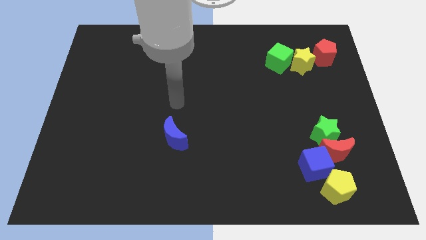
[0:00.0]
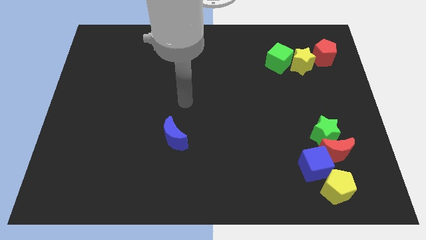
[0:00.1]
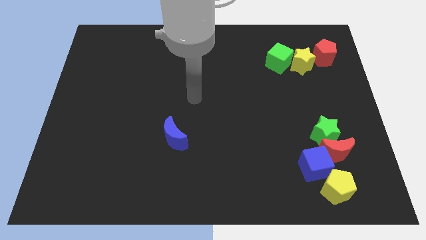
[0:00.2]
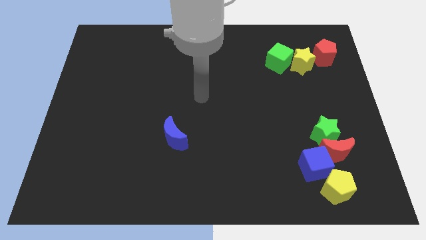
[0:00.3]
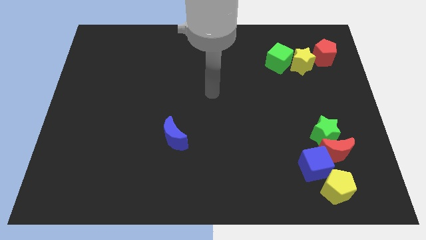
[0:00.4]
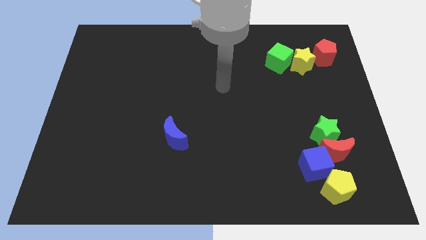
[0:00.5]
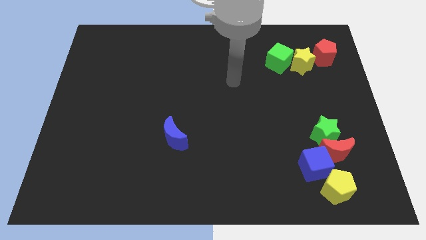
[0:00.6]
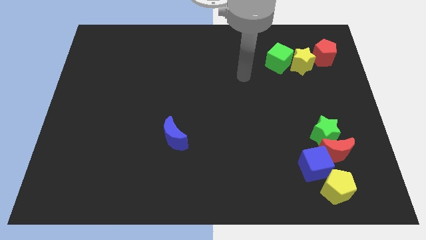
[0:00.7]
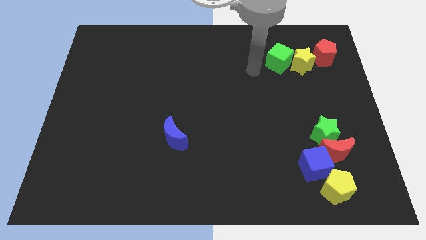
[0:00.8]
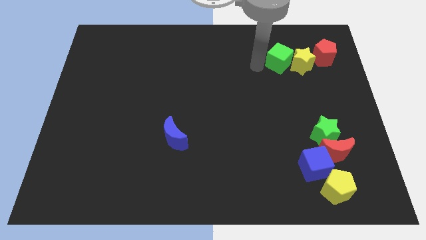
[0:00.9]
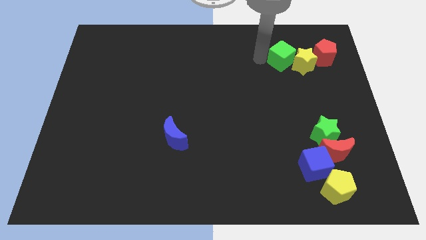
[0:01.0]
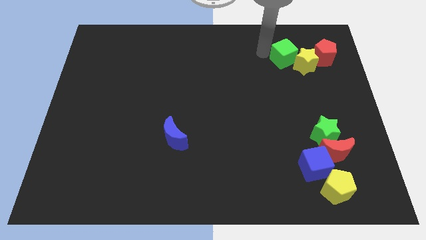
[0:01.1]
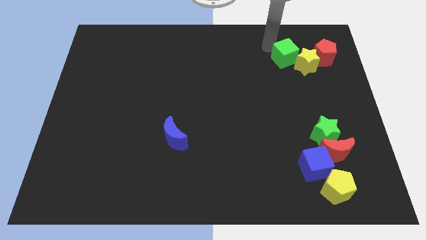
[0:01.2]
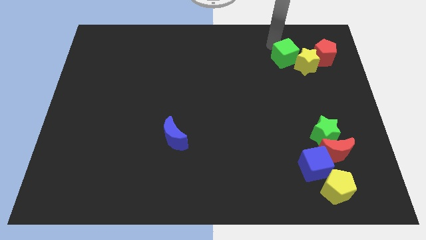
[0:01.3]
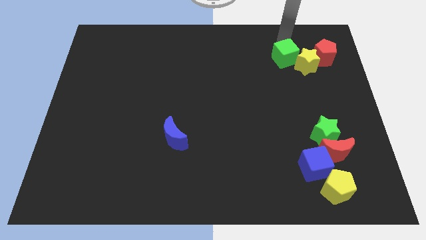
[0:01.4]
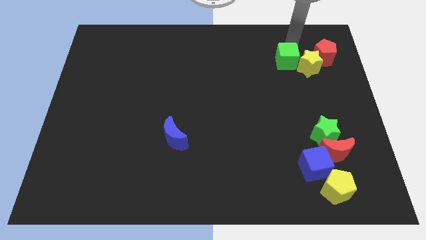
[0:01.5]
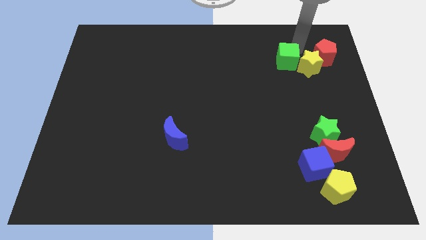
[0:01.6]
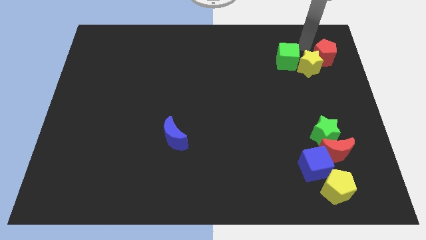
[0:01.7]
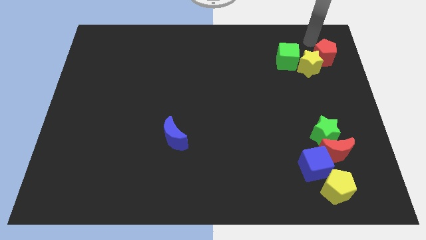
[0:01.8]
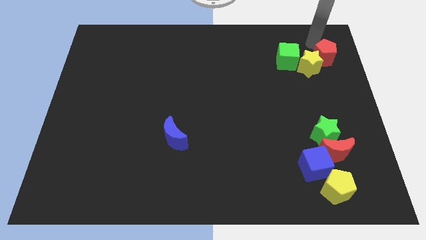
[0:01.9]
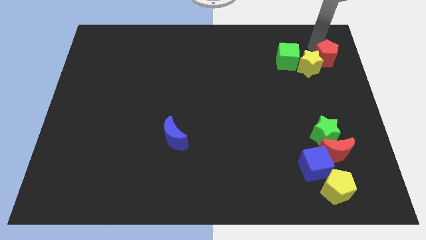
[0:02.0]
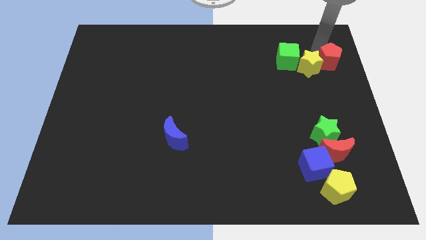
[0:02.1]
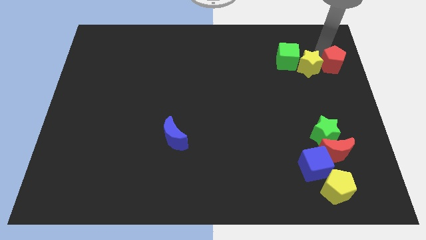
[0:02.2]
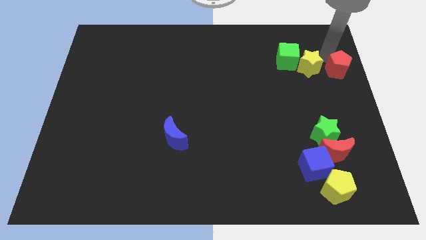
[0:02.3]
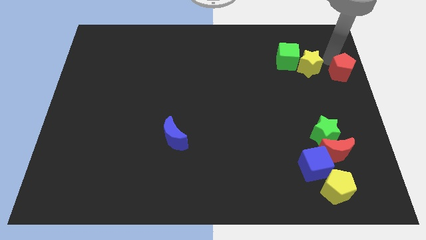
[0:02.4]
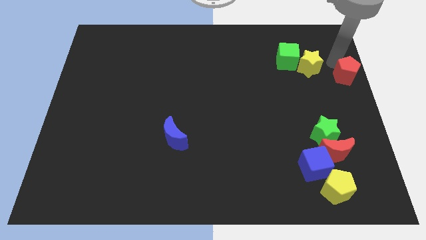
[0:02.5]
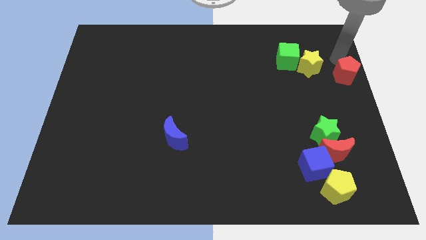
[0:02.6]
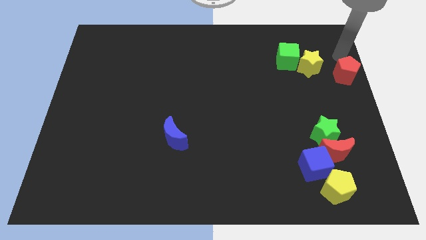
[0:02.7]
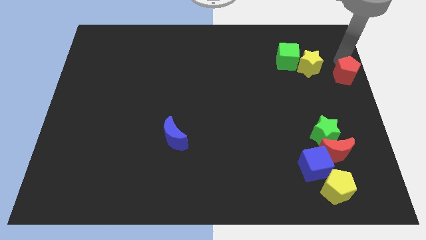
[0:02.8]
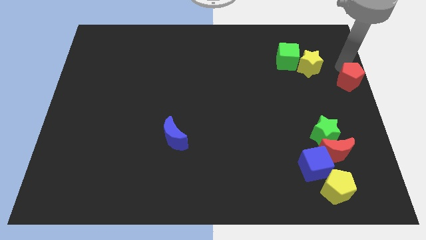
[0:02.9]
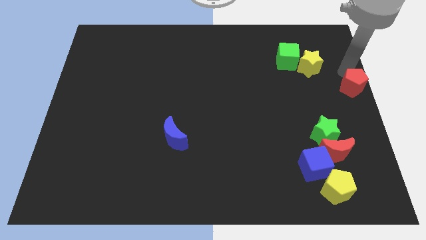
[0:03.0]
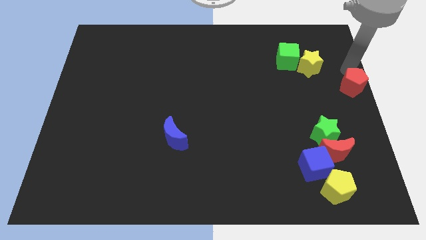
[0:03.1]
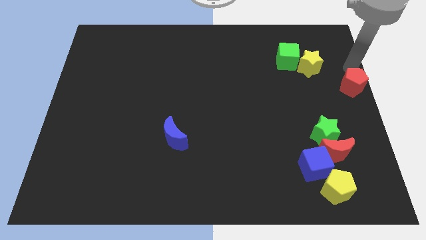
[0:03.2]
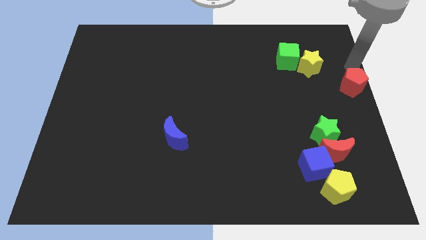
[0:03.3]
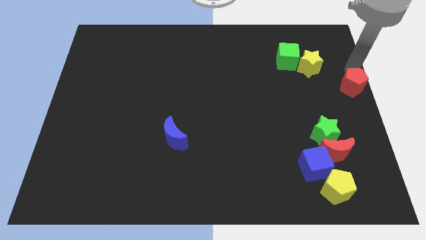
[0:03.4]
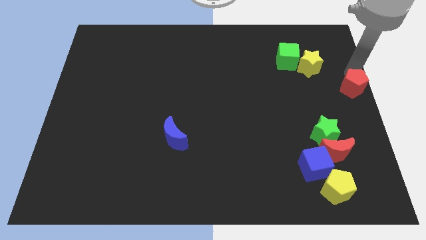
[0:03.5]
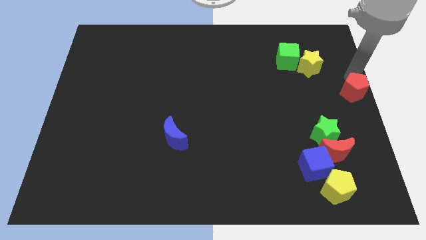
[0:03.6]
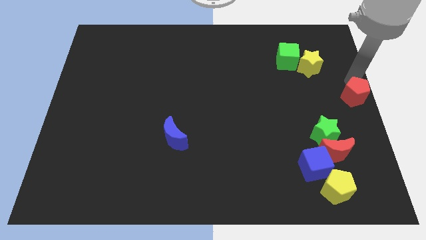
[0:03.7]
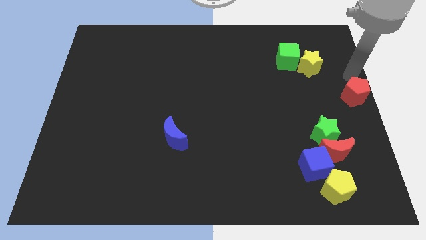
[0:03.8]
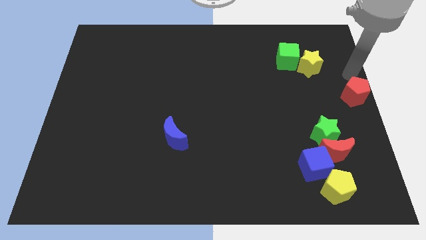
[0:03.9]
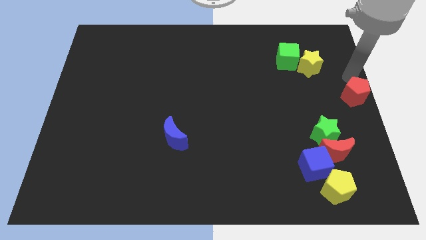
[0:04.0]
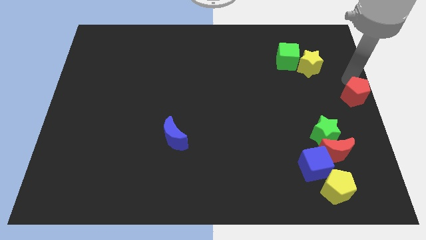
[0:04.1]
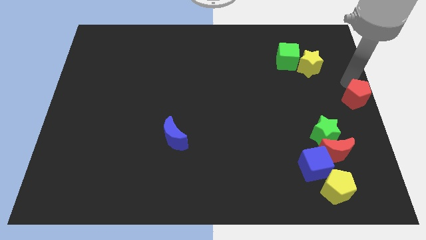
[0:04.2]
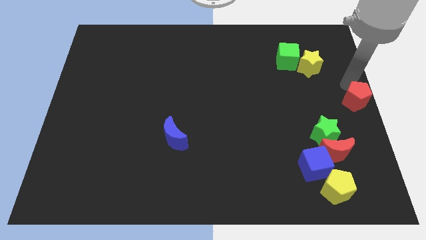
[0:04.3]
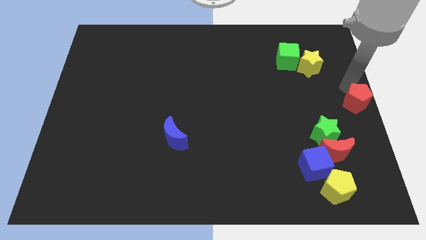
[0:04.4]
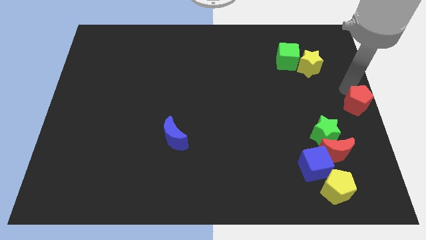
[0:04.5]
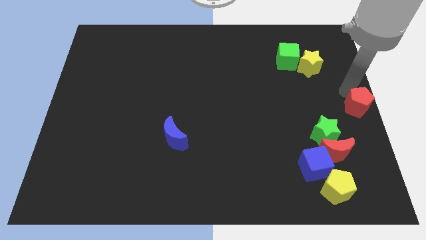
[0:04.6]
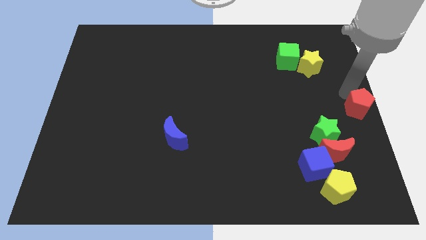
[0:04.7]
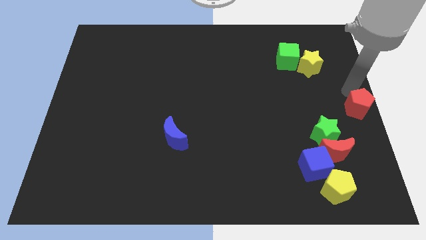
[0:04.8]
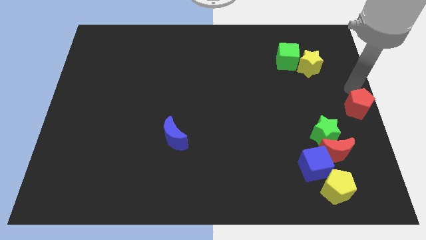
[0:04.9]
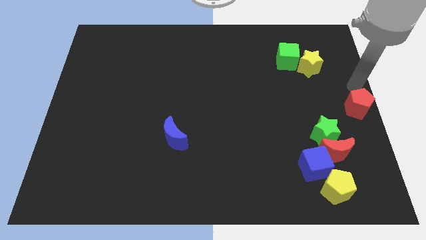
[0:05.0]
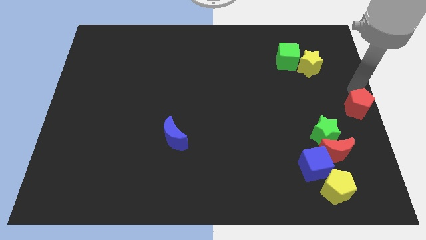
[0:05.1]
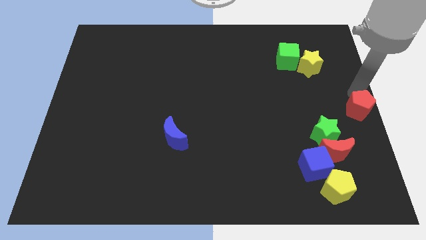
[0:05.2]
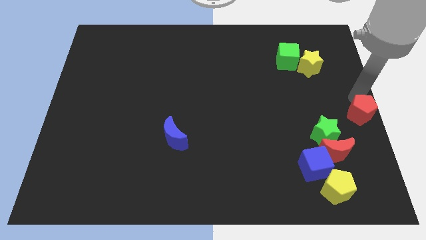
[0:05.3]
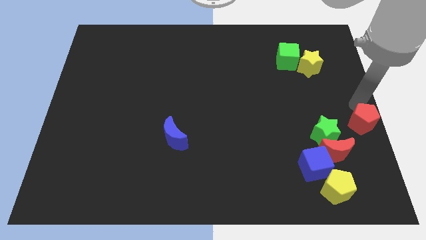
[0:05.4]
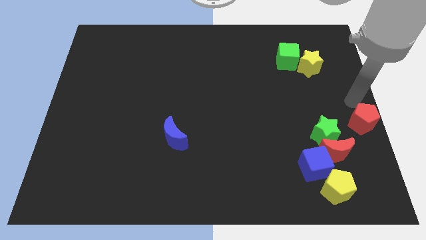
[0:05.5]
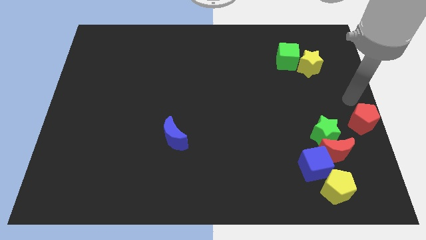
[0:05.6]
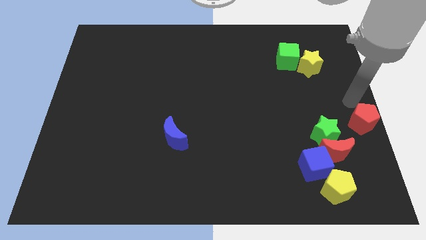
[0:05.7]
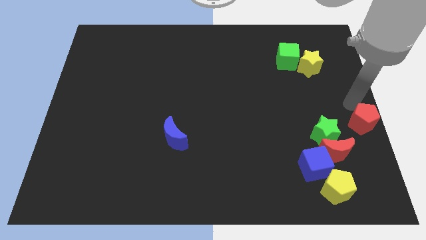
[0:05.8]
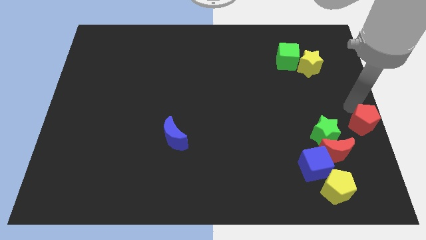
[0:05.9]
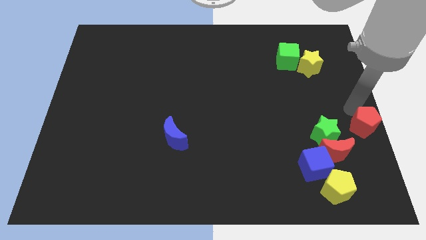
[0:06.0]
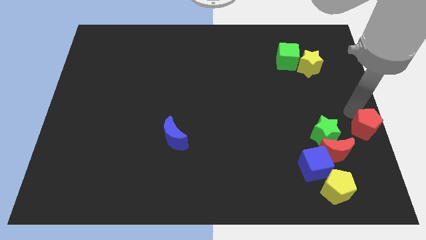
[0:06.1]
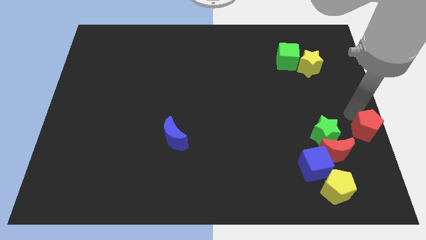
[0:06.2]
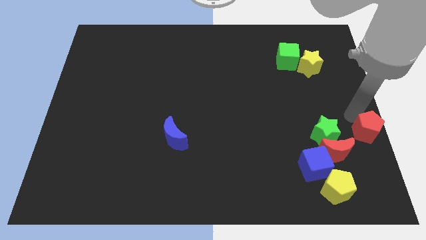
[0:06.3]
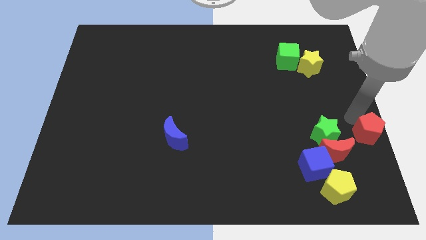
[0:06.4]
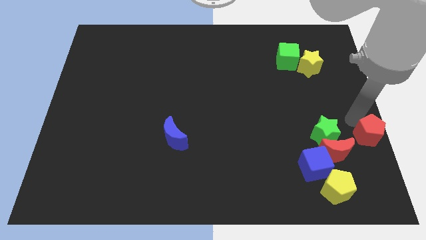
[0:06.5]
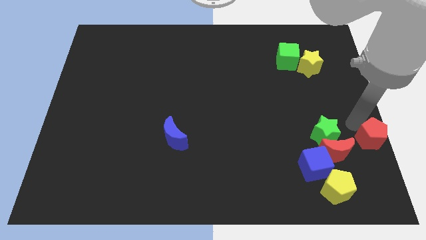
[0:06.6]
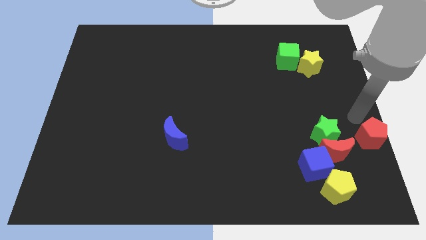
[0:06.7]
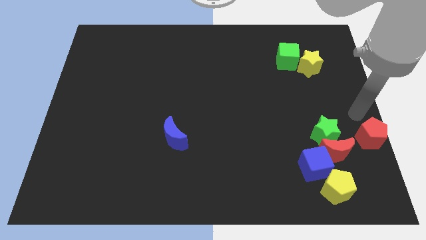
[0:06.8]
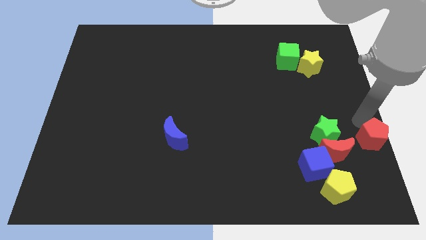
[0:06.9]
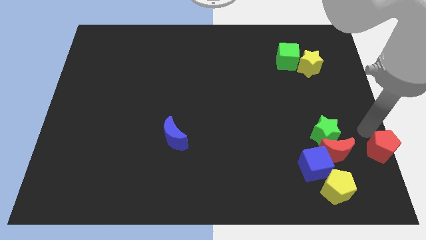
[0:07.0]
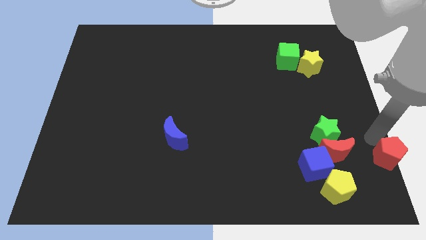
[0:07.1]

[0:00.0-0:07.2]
push the red pentagon to the bottom right corner
